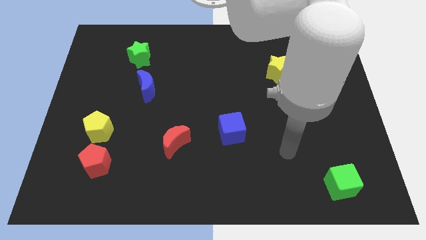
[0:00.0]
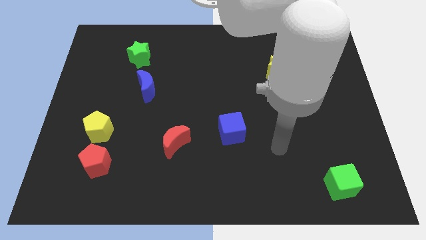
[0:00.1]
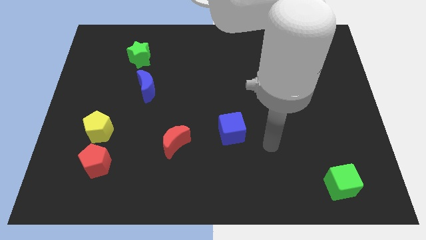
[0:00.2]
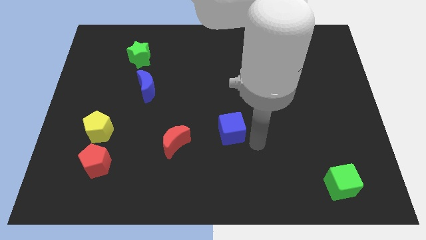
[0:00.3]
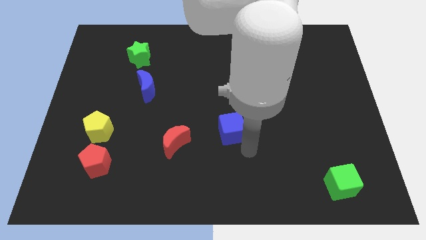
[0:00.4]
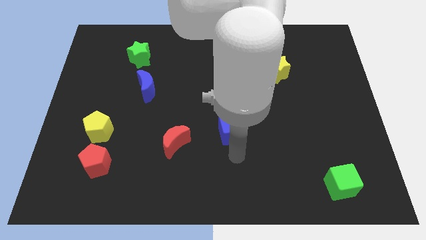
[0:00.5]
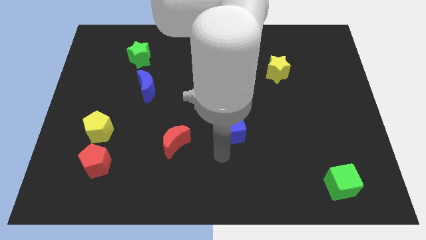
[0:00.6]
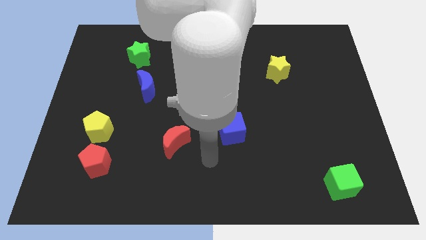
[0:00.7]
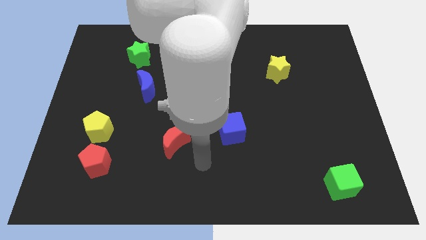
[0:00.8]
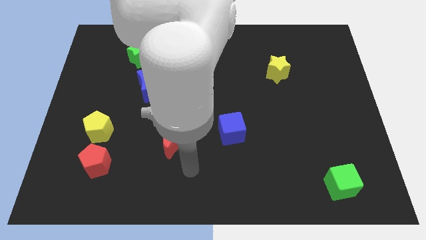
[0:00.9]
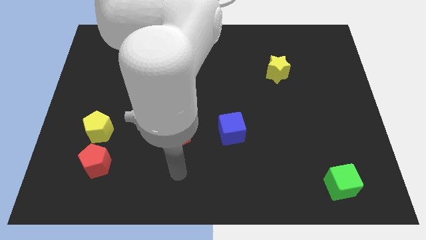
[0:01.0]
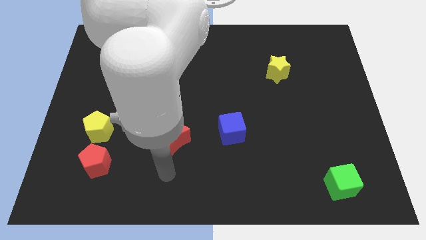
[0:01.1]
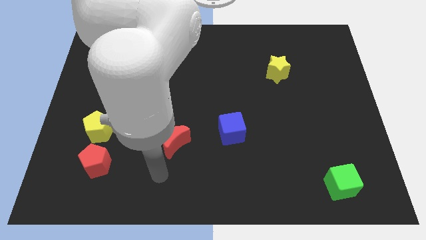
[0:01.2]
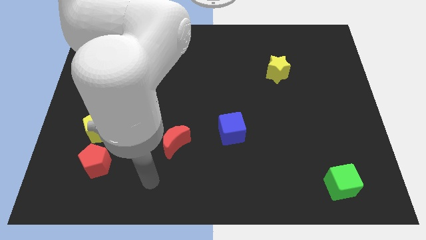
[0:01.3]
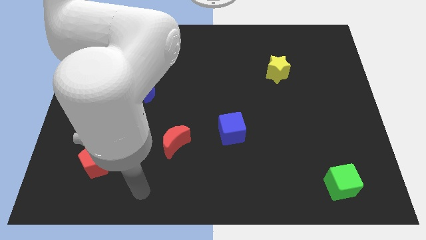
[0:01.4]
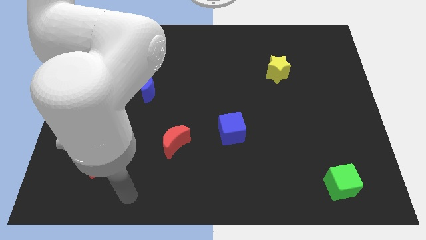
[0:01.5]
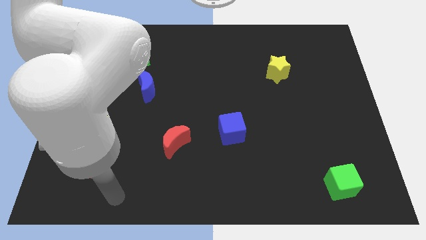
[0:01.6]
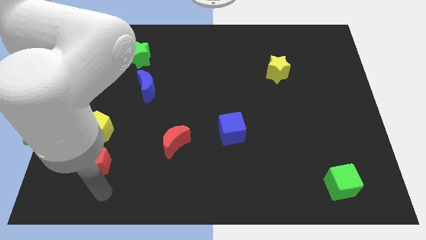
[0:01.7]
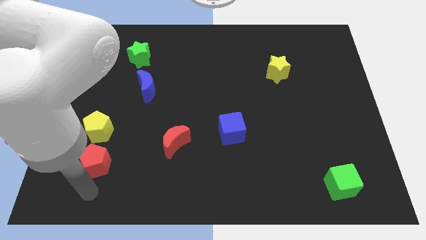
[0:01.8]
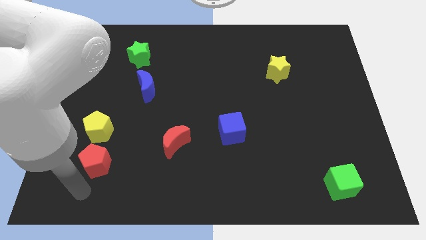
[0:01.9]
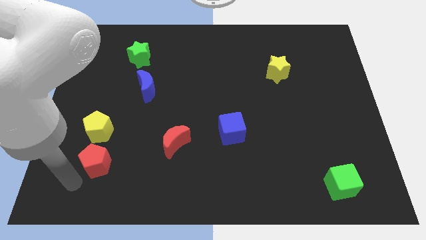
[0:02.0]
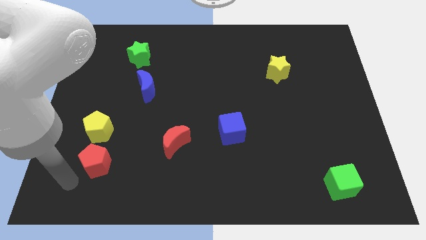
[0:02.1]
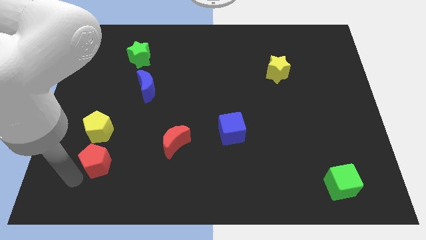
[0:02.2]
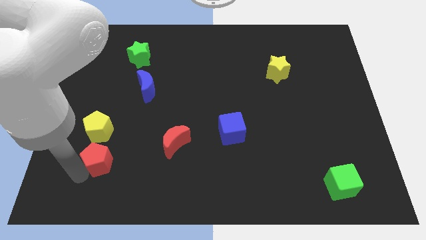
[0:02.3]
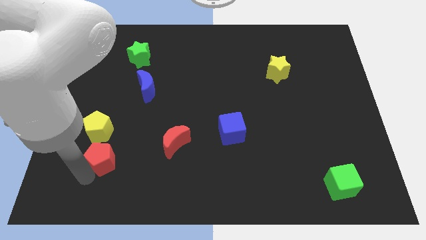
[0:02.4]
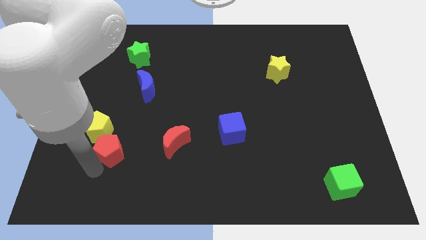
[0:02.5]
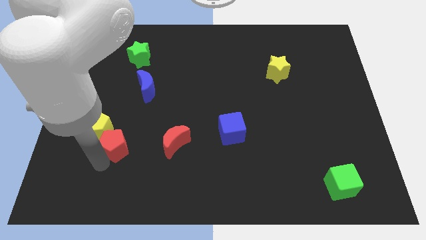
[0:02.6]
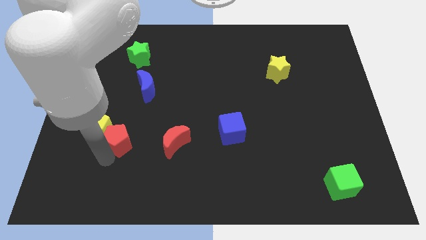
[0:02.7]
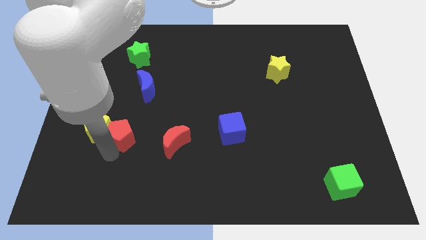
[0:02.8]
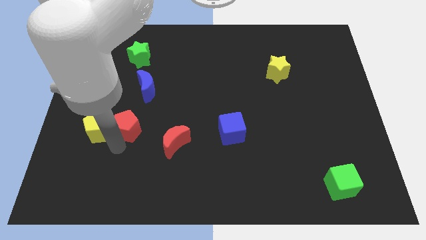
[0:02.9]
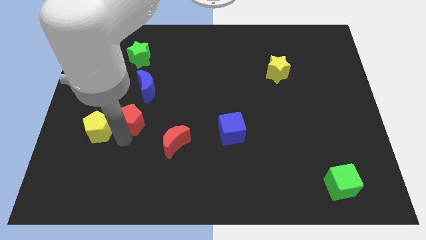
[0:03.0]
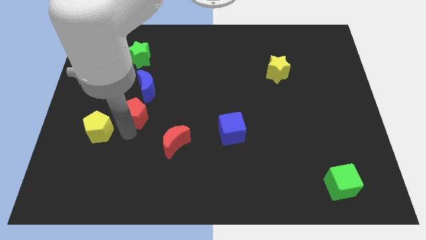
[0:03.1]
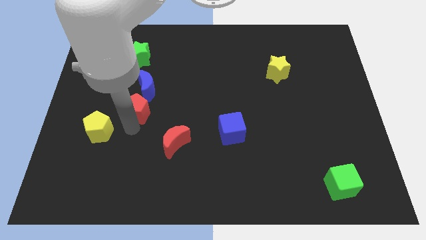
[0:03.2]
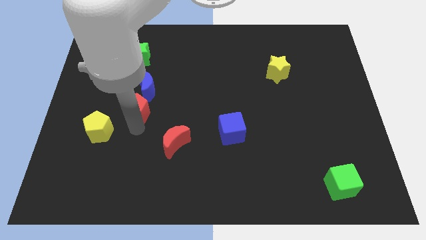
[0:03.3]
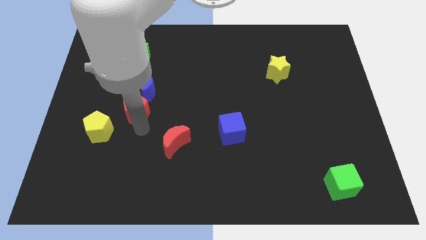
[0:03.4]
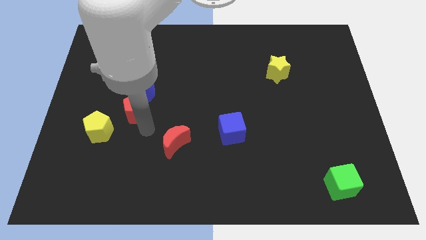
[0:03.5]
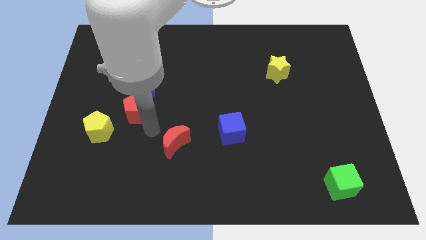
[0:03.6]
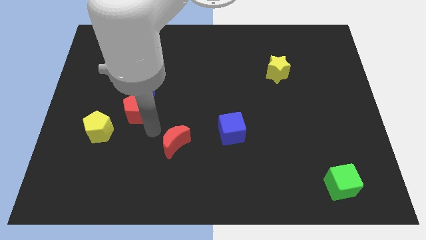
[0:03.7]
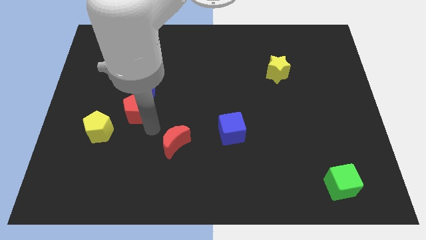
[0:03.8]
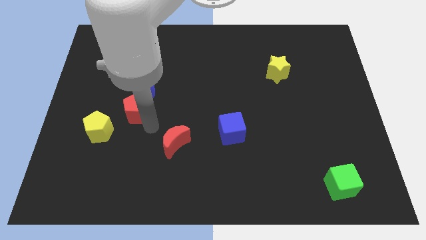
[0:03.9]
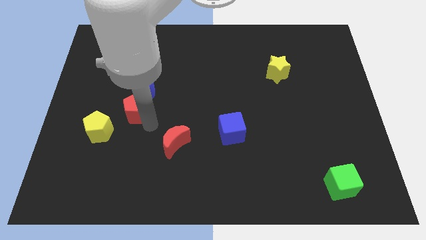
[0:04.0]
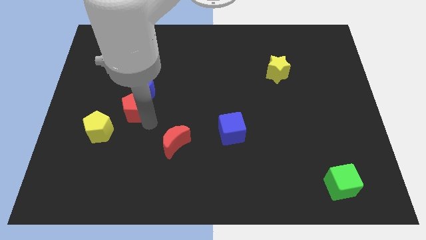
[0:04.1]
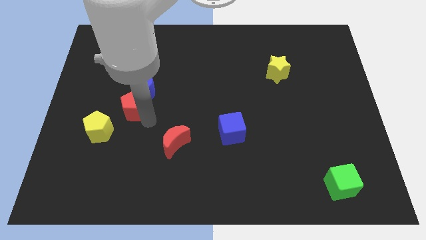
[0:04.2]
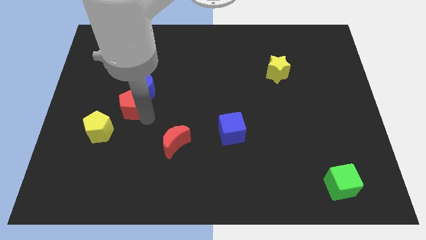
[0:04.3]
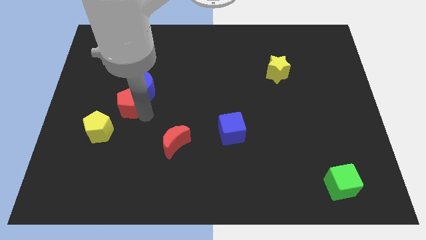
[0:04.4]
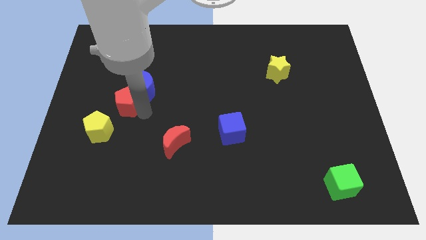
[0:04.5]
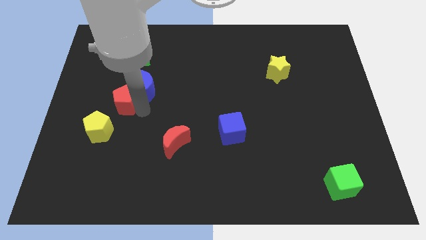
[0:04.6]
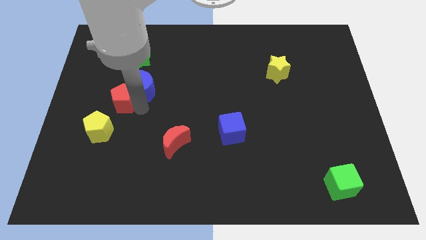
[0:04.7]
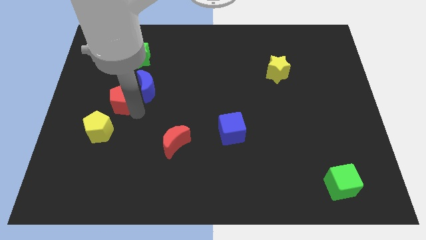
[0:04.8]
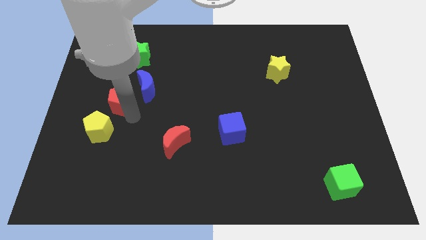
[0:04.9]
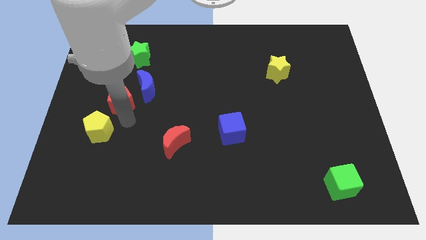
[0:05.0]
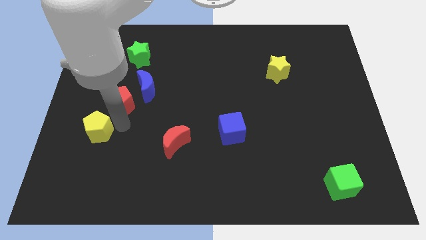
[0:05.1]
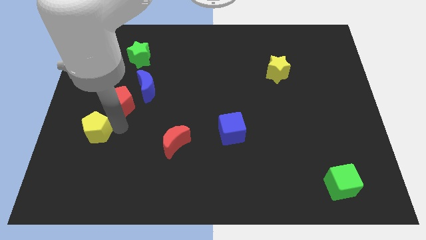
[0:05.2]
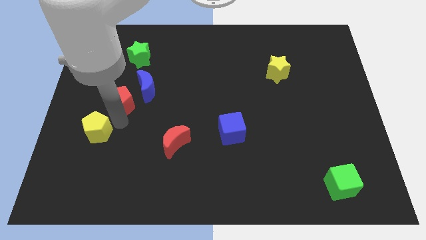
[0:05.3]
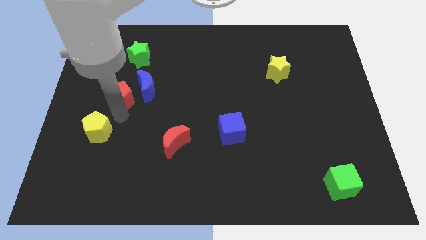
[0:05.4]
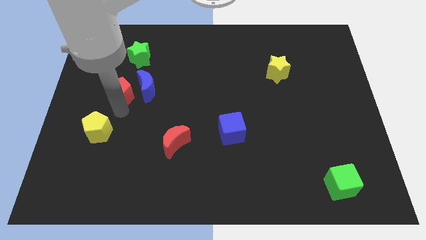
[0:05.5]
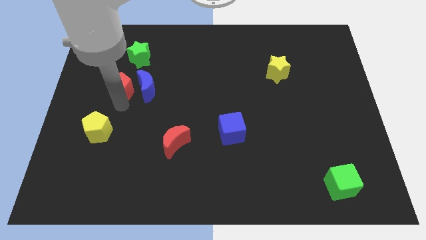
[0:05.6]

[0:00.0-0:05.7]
push the red pentagon up

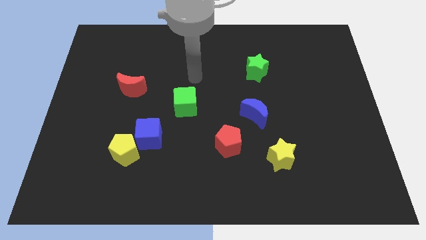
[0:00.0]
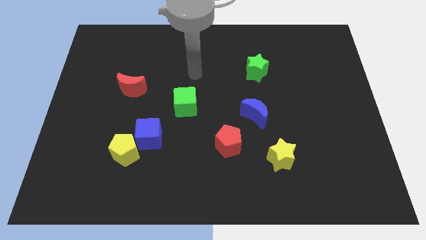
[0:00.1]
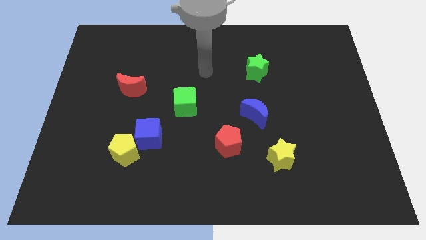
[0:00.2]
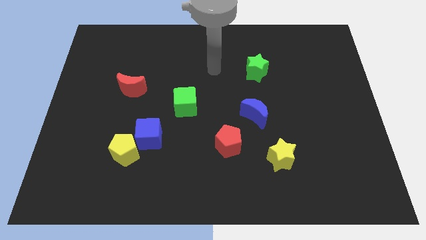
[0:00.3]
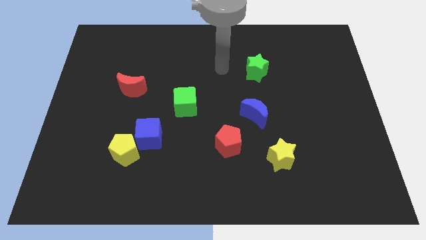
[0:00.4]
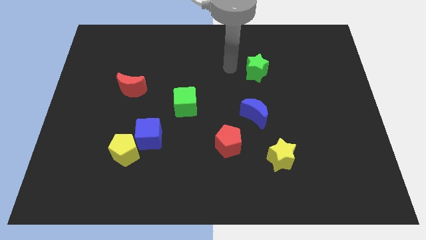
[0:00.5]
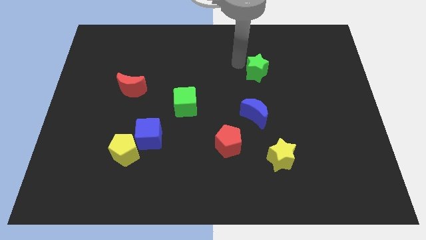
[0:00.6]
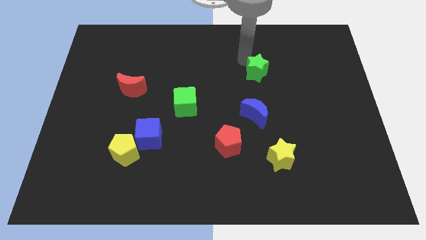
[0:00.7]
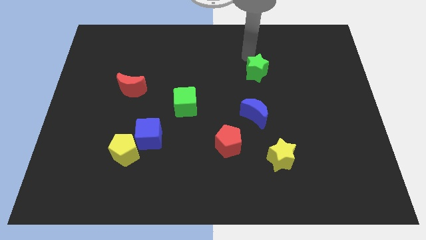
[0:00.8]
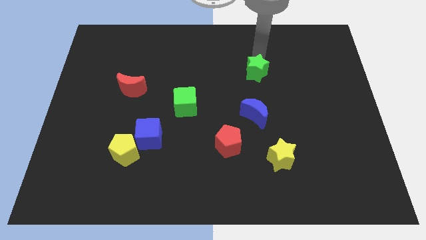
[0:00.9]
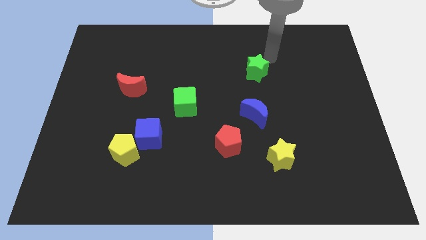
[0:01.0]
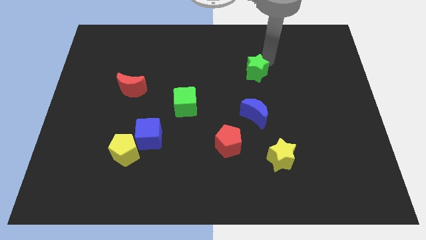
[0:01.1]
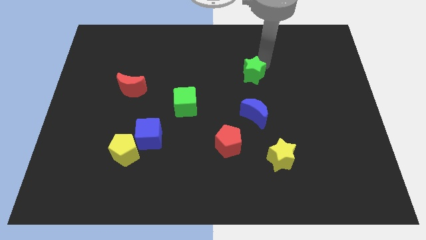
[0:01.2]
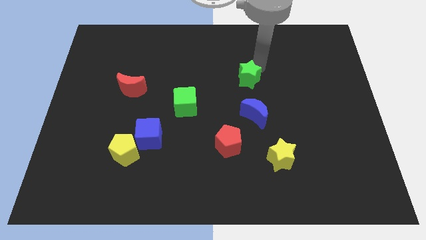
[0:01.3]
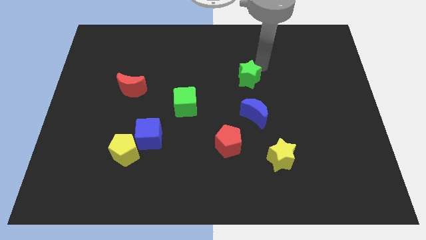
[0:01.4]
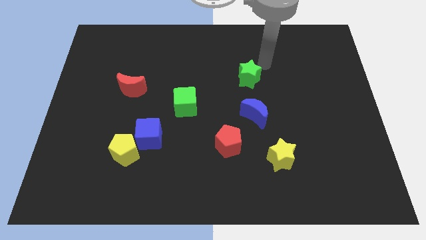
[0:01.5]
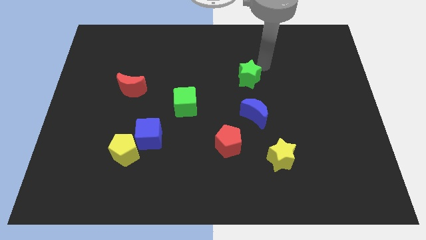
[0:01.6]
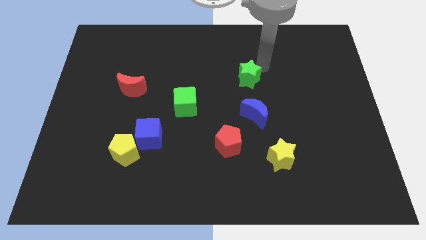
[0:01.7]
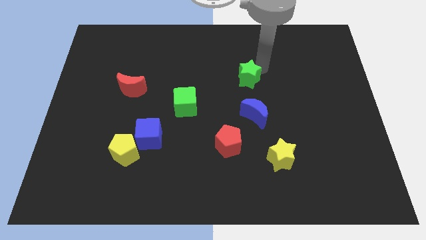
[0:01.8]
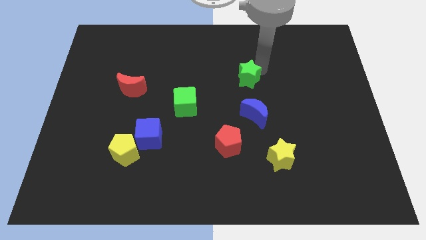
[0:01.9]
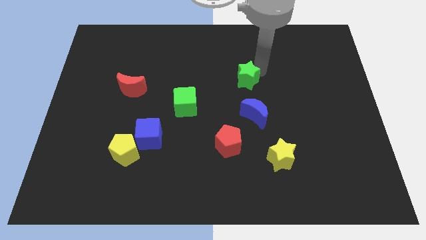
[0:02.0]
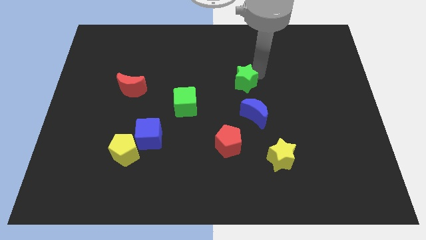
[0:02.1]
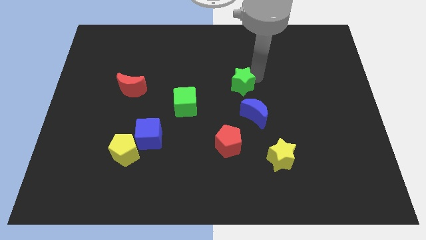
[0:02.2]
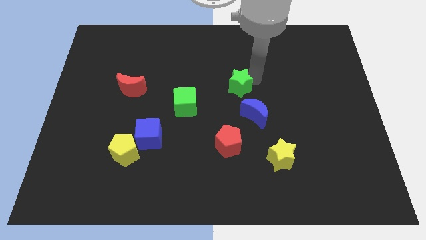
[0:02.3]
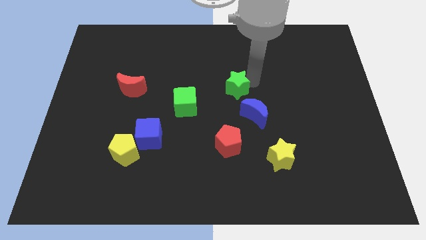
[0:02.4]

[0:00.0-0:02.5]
push the green star downwards and left somewhat

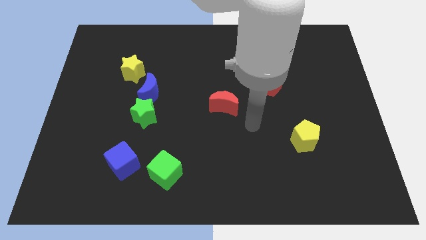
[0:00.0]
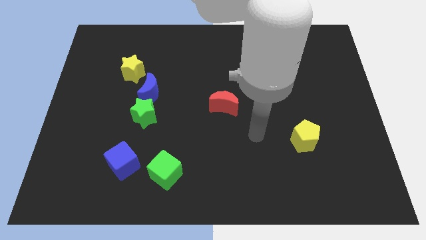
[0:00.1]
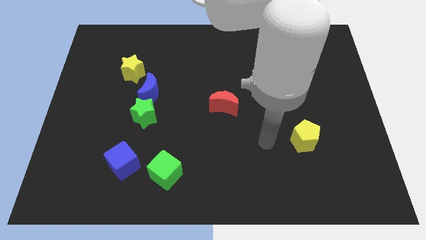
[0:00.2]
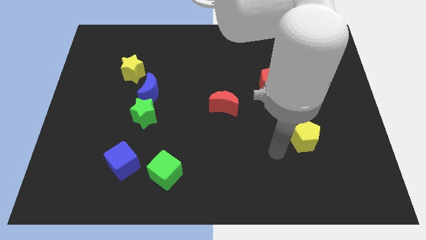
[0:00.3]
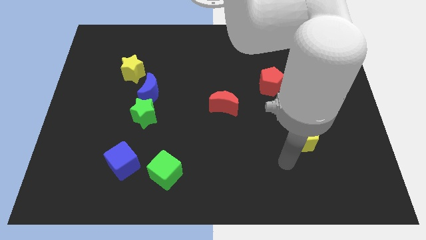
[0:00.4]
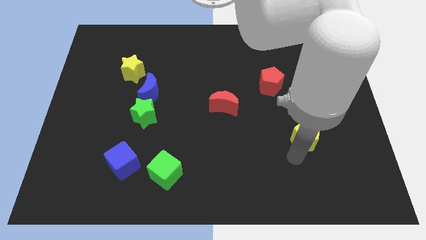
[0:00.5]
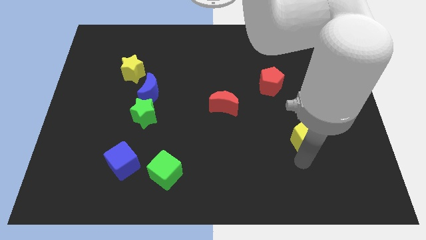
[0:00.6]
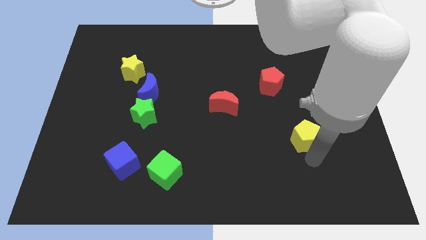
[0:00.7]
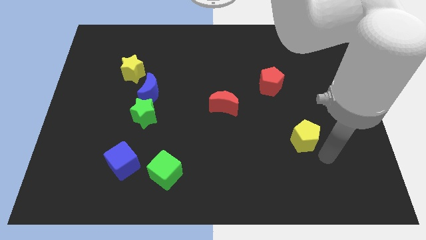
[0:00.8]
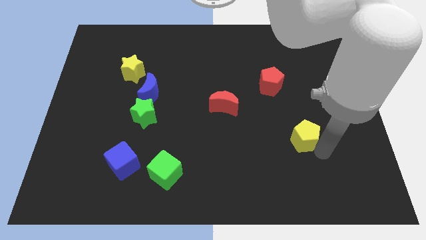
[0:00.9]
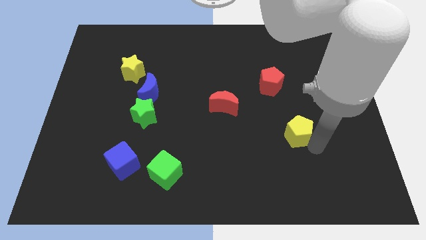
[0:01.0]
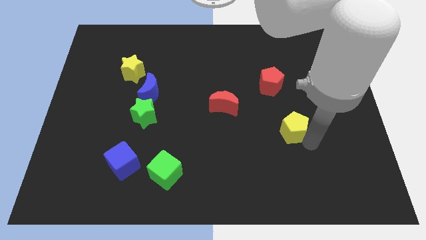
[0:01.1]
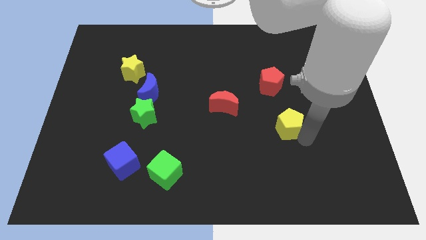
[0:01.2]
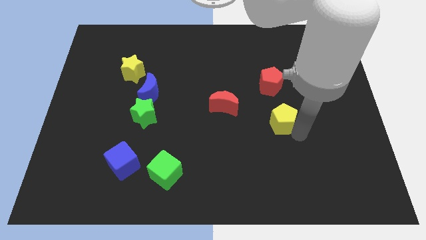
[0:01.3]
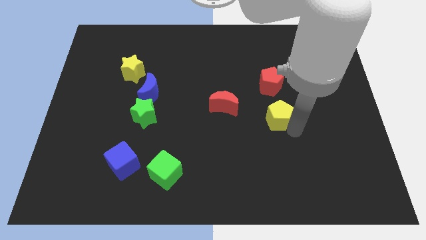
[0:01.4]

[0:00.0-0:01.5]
push the yellow pentagon upwards and left diagonally a little bit
